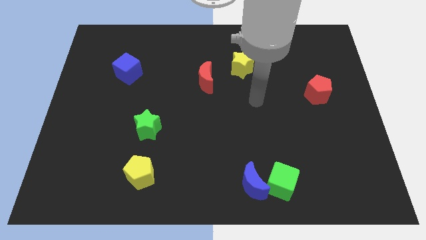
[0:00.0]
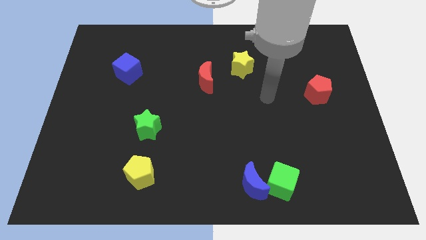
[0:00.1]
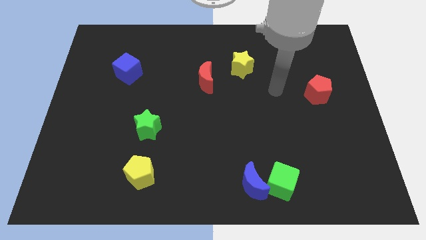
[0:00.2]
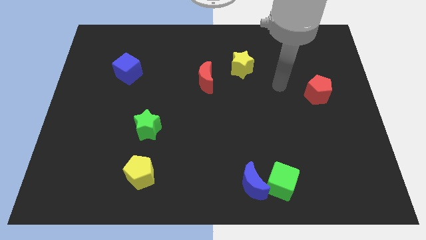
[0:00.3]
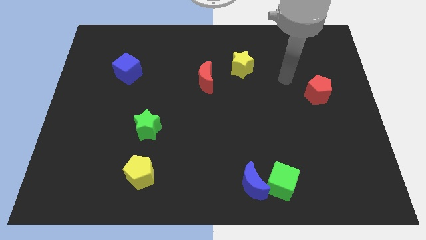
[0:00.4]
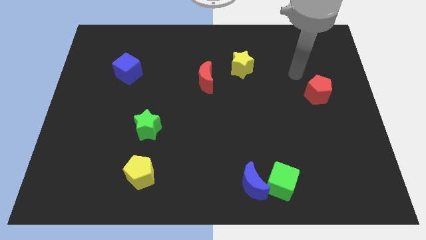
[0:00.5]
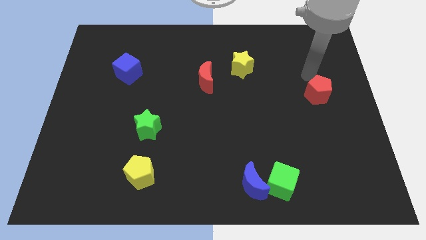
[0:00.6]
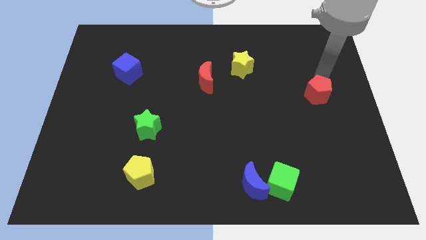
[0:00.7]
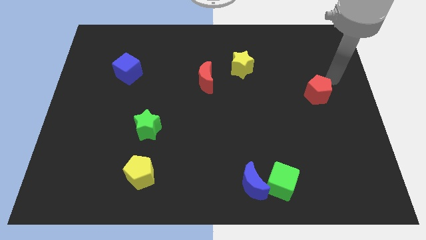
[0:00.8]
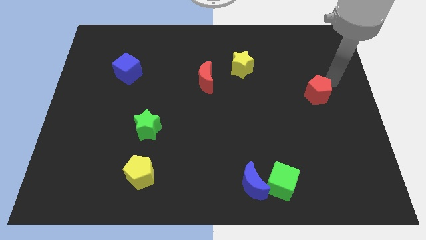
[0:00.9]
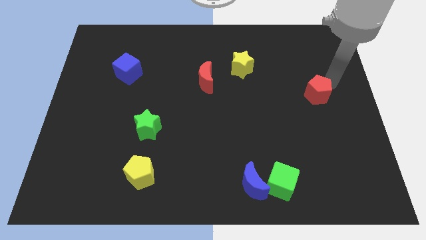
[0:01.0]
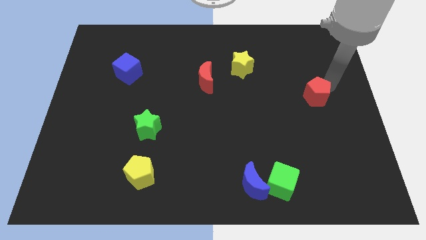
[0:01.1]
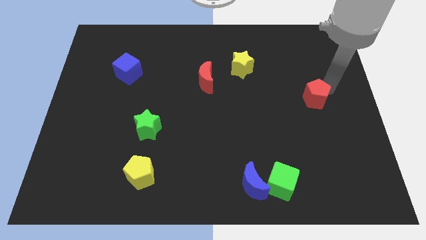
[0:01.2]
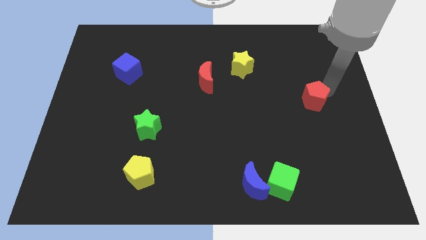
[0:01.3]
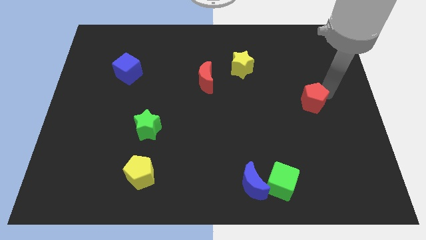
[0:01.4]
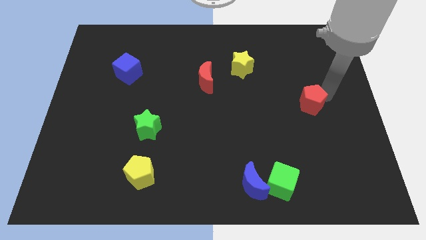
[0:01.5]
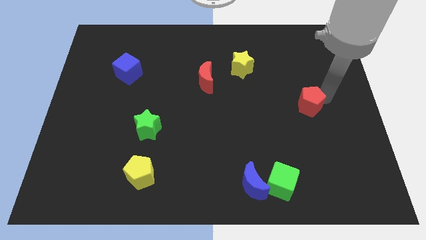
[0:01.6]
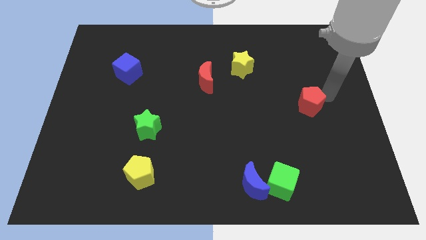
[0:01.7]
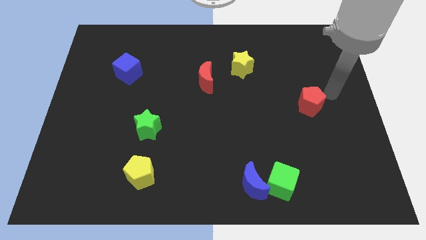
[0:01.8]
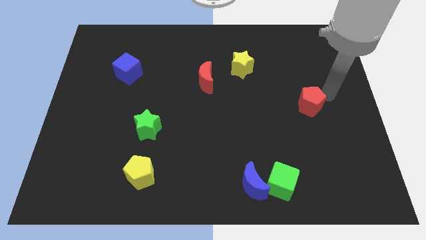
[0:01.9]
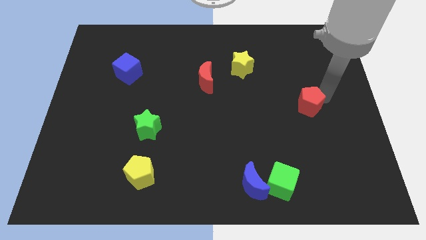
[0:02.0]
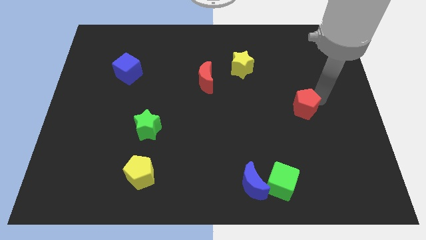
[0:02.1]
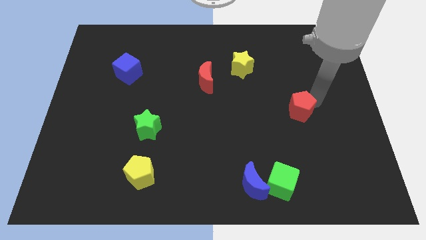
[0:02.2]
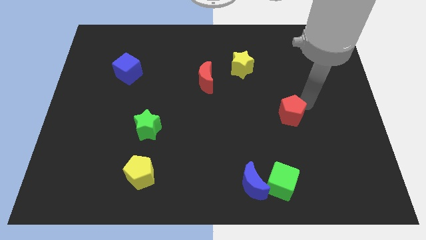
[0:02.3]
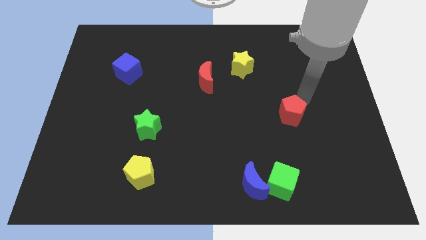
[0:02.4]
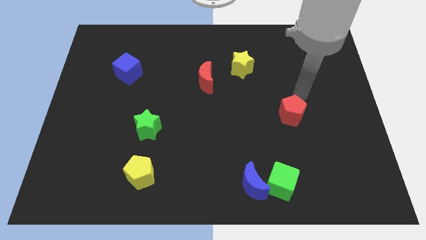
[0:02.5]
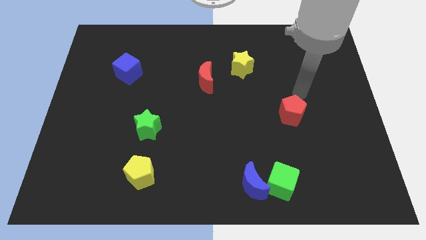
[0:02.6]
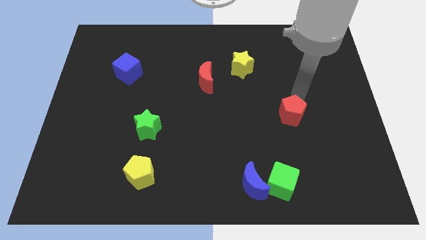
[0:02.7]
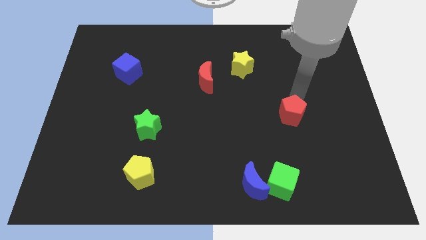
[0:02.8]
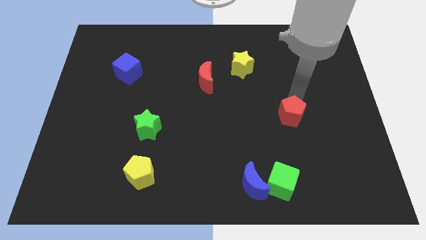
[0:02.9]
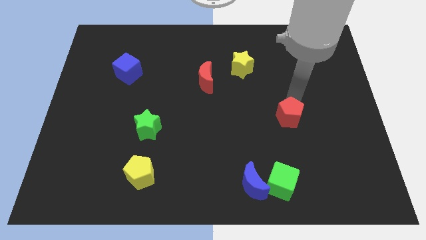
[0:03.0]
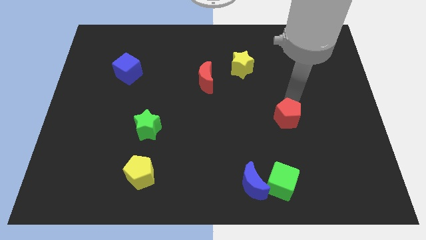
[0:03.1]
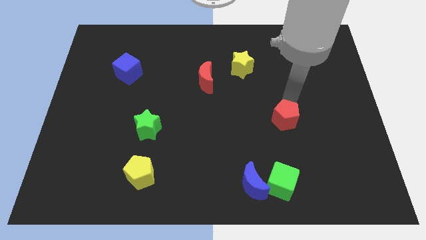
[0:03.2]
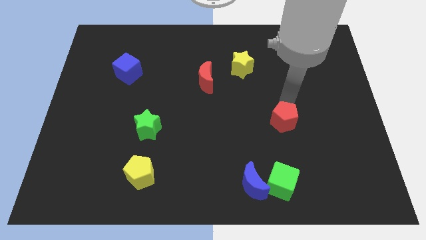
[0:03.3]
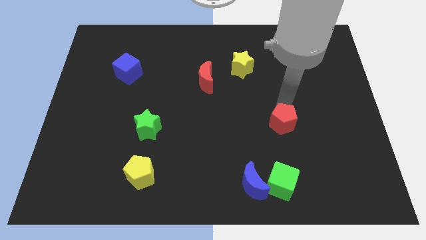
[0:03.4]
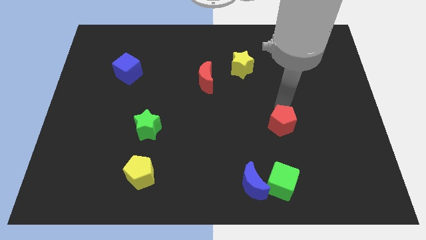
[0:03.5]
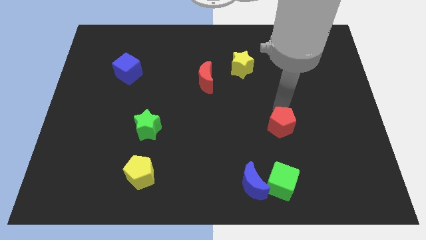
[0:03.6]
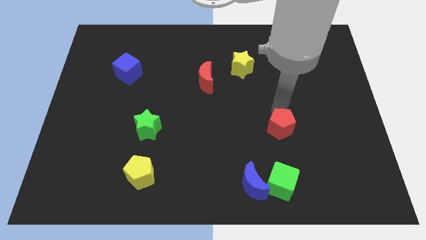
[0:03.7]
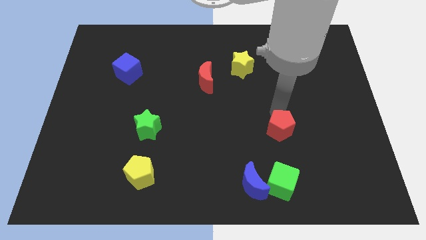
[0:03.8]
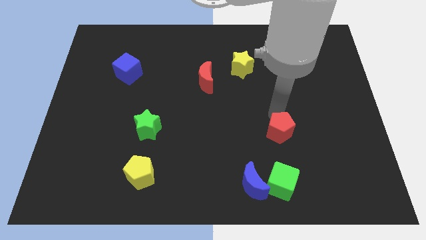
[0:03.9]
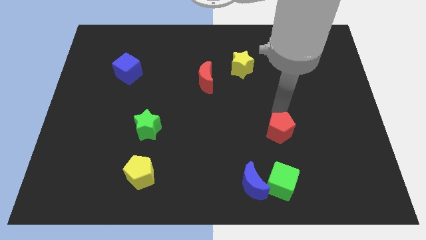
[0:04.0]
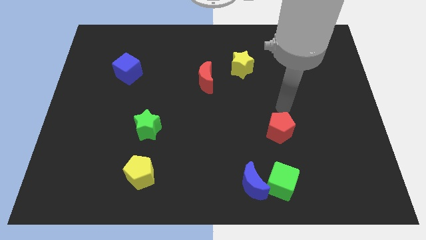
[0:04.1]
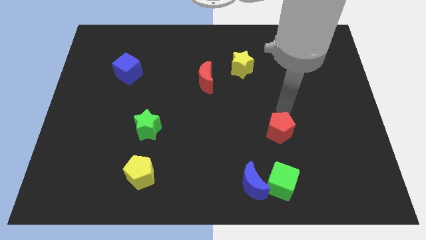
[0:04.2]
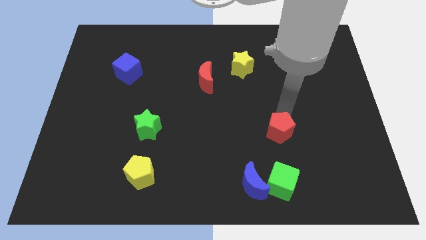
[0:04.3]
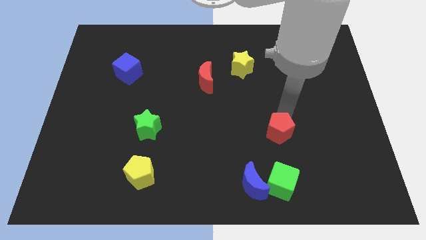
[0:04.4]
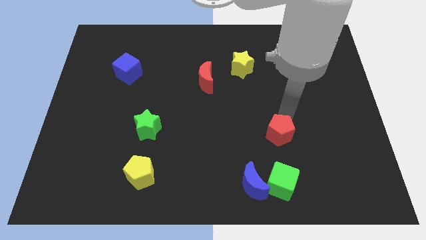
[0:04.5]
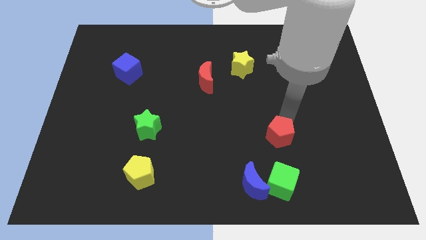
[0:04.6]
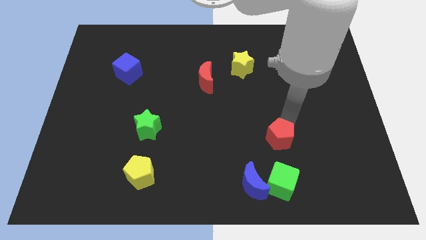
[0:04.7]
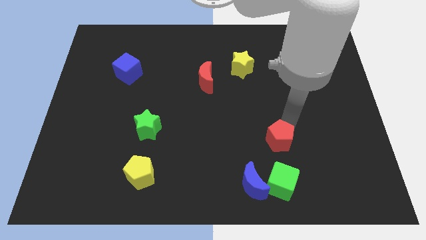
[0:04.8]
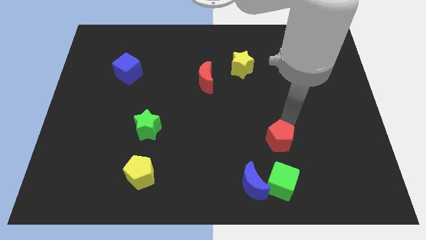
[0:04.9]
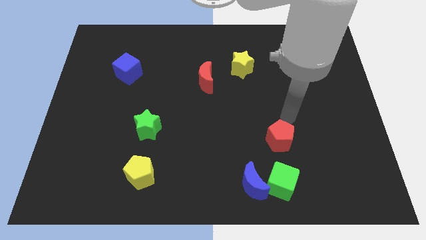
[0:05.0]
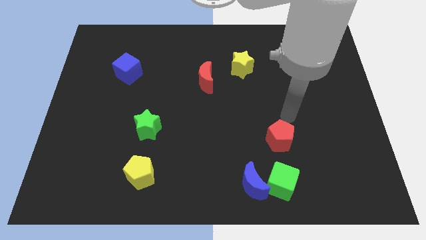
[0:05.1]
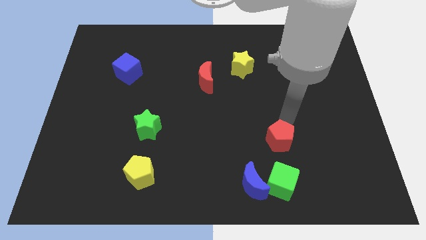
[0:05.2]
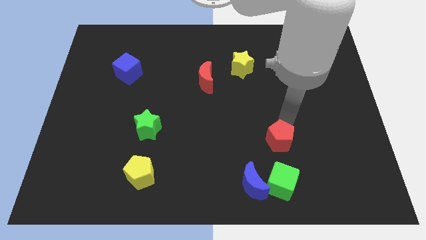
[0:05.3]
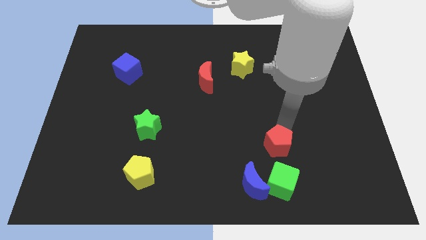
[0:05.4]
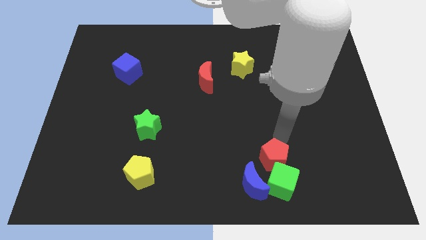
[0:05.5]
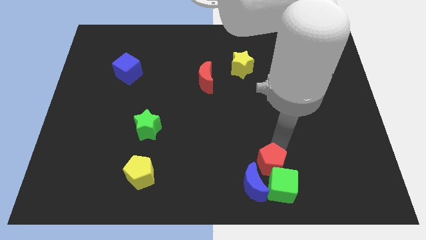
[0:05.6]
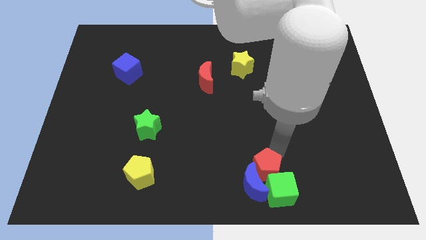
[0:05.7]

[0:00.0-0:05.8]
move the red pentagon close to the blue moon

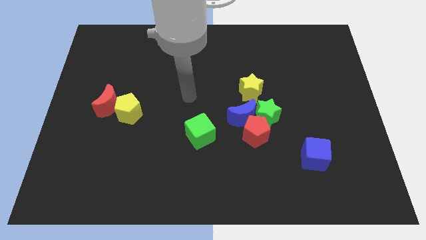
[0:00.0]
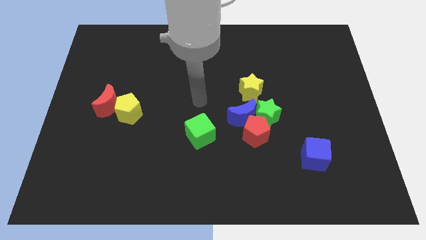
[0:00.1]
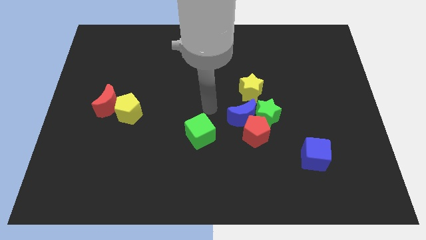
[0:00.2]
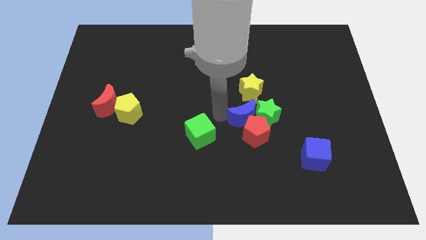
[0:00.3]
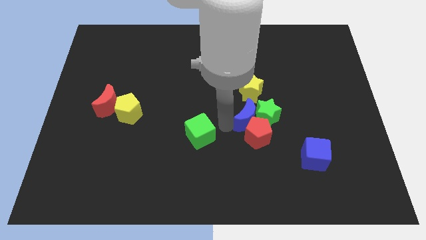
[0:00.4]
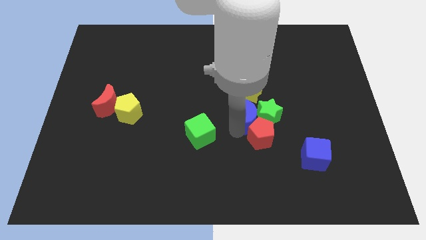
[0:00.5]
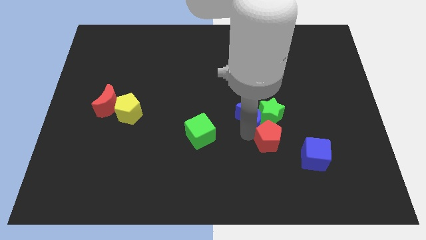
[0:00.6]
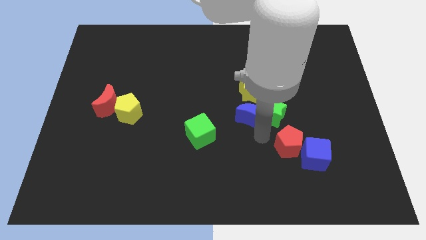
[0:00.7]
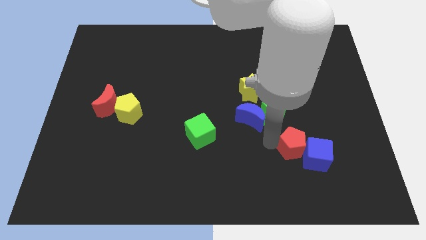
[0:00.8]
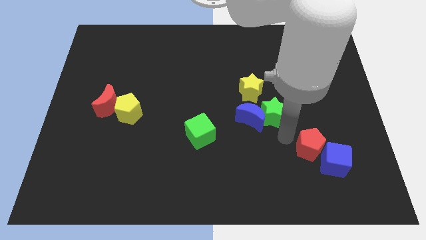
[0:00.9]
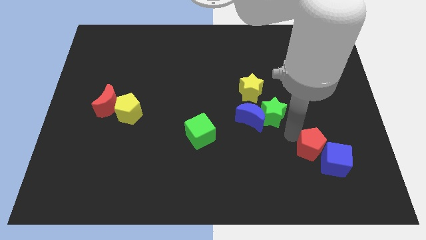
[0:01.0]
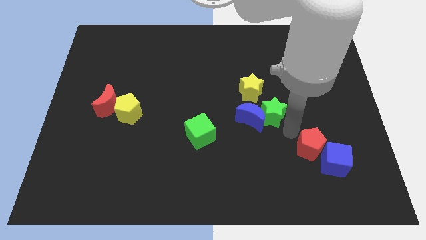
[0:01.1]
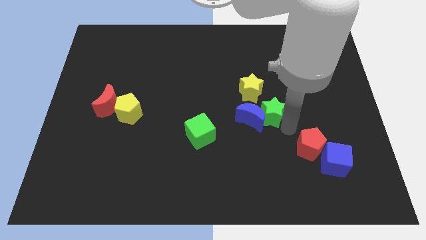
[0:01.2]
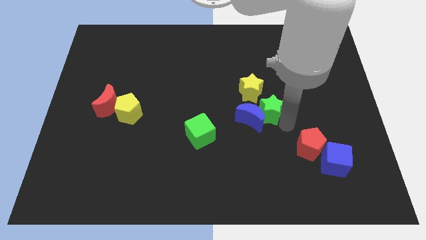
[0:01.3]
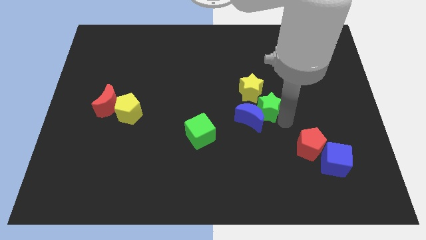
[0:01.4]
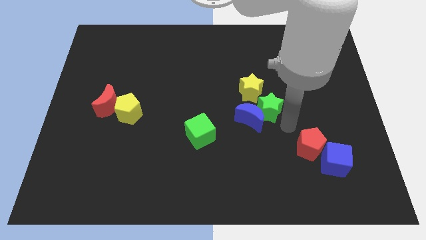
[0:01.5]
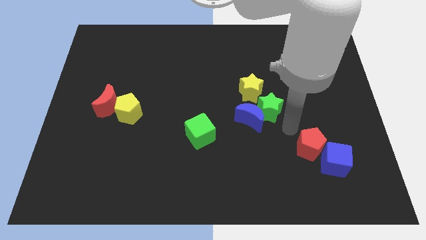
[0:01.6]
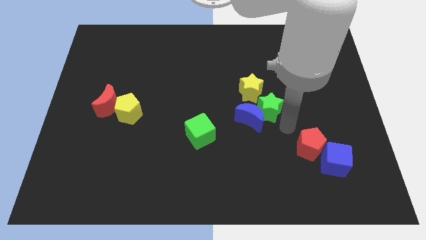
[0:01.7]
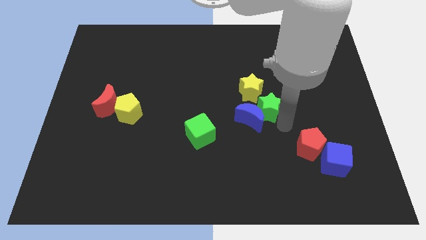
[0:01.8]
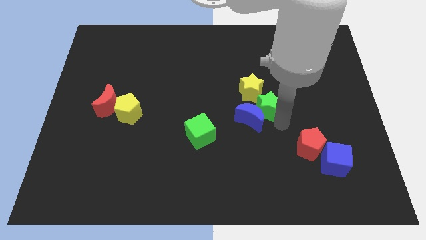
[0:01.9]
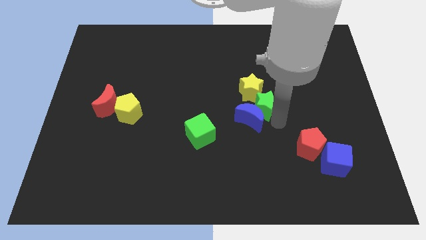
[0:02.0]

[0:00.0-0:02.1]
slide the green star towards the yellow star
